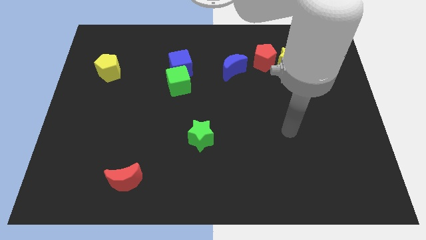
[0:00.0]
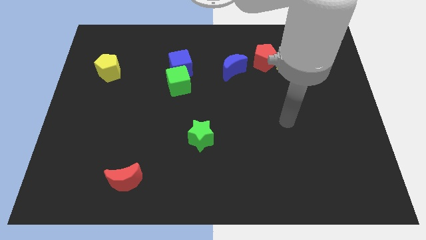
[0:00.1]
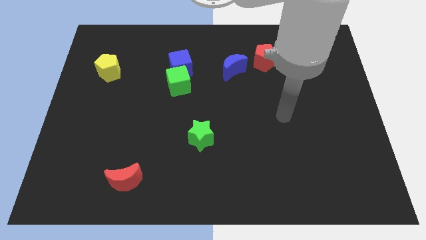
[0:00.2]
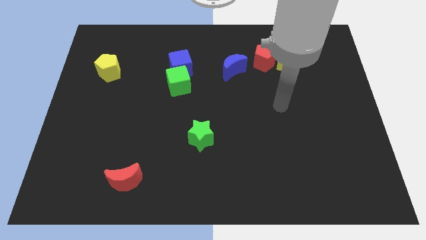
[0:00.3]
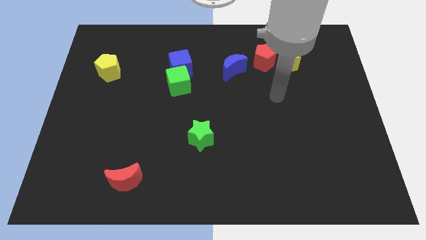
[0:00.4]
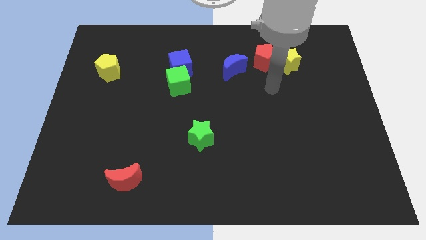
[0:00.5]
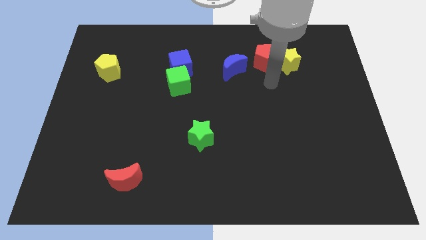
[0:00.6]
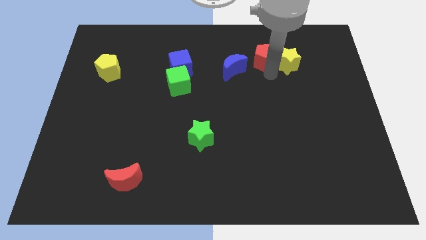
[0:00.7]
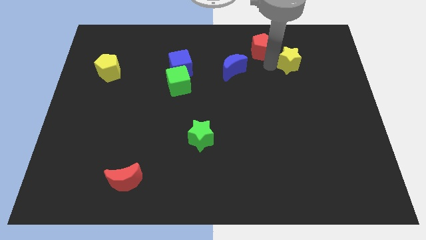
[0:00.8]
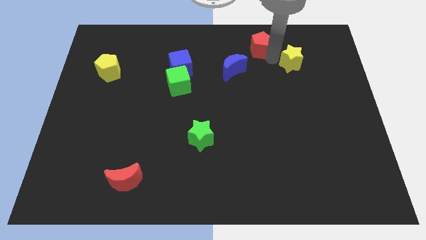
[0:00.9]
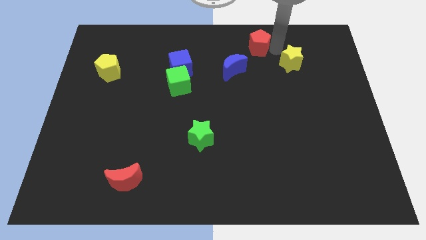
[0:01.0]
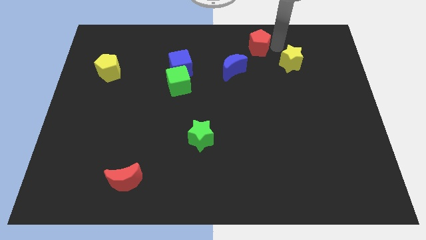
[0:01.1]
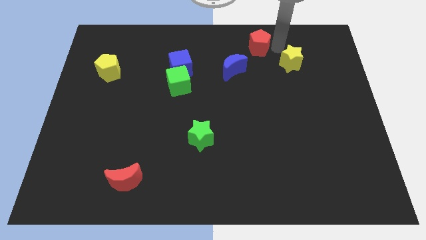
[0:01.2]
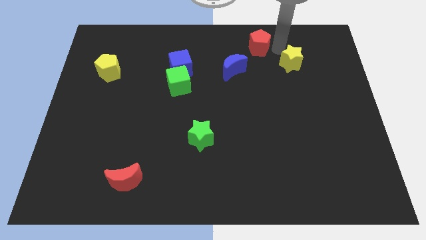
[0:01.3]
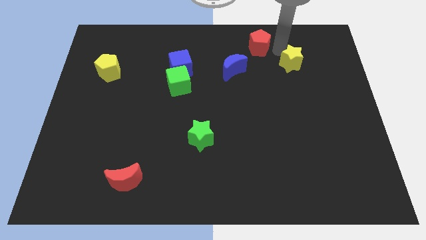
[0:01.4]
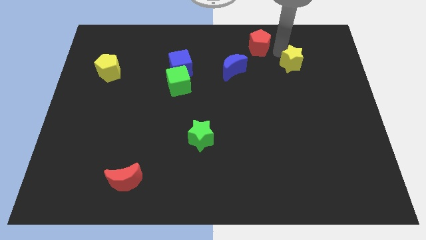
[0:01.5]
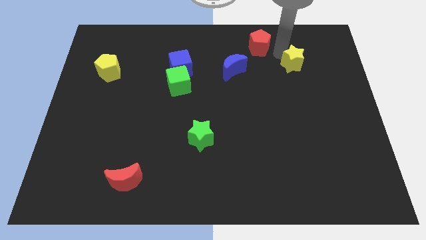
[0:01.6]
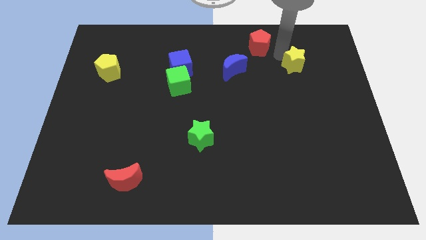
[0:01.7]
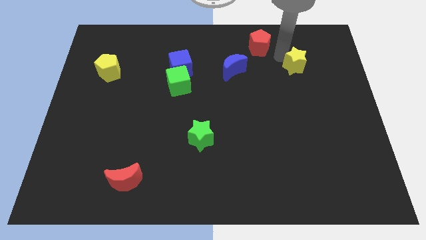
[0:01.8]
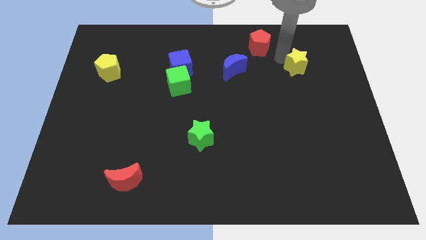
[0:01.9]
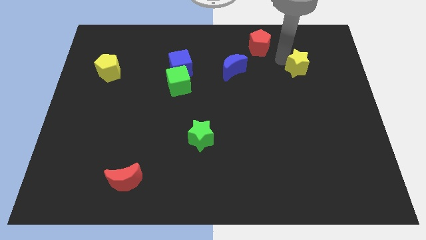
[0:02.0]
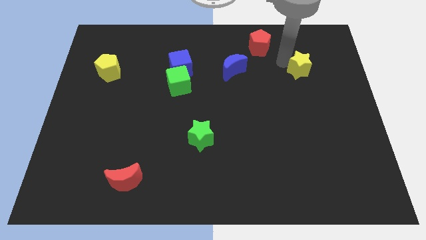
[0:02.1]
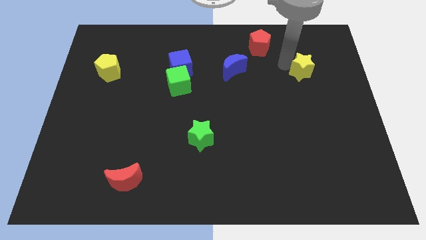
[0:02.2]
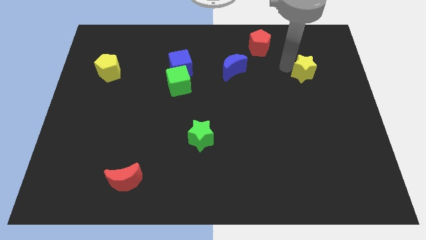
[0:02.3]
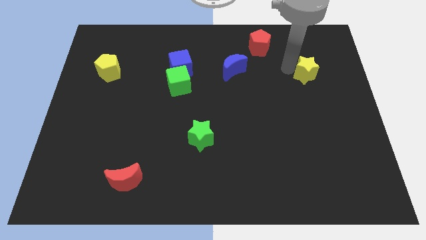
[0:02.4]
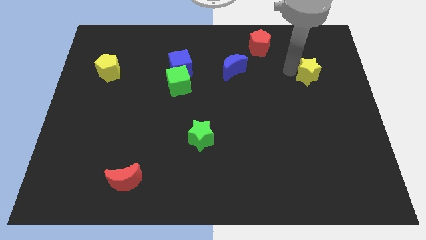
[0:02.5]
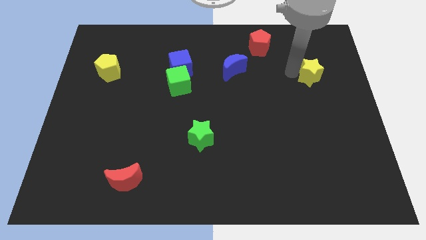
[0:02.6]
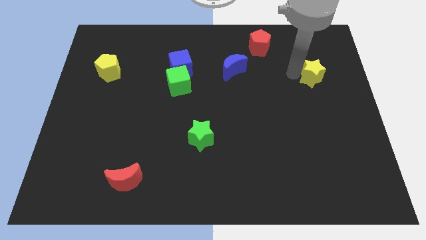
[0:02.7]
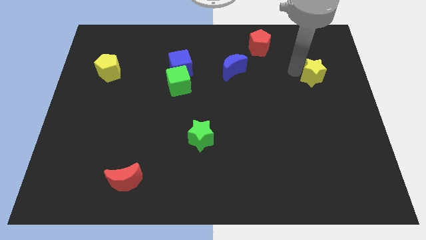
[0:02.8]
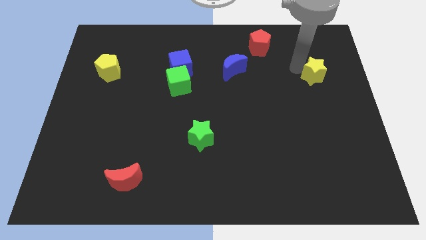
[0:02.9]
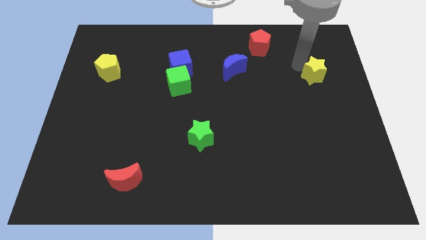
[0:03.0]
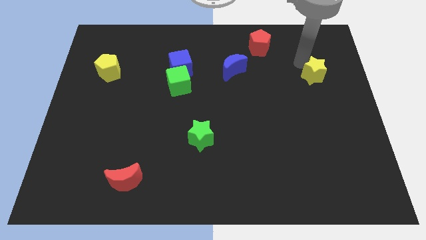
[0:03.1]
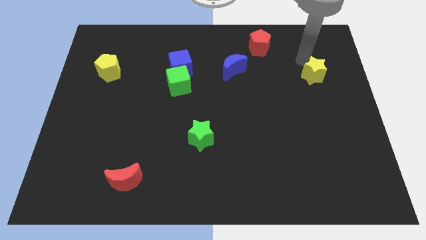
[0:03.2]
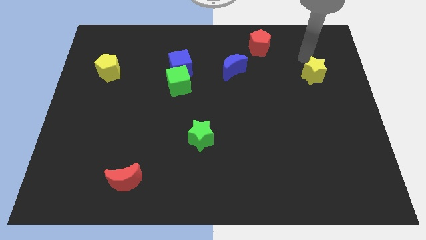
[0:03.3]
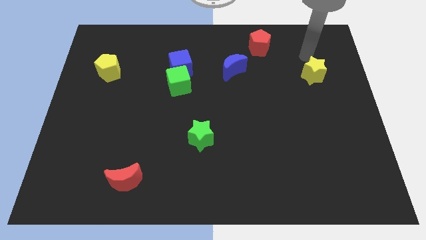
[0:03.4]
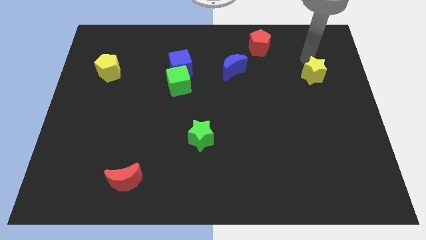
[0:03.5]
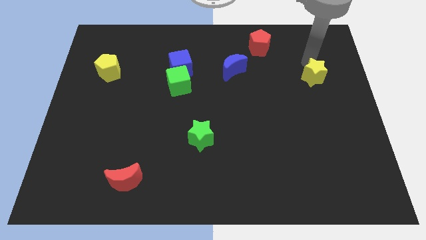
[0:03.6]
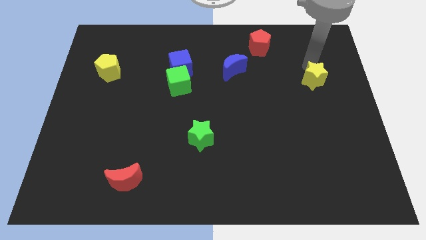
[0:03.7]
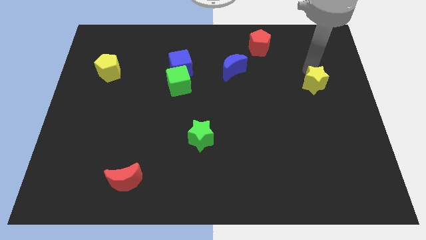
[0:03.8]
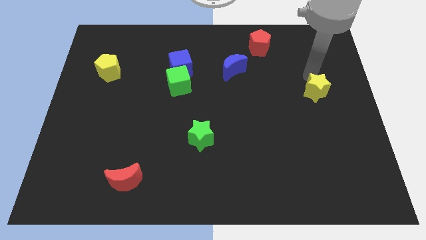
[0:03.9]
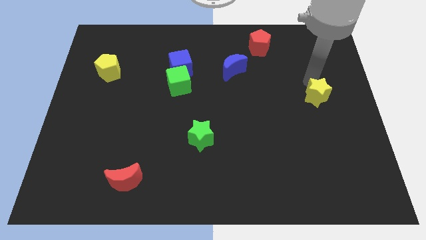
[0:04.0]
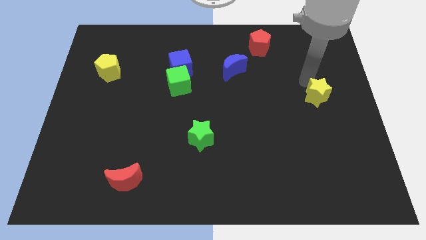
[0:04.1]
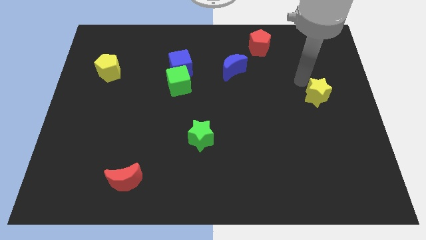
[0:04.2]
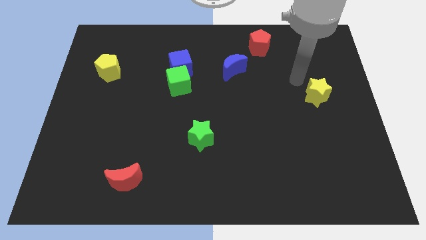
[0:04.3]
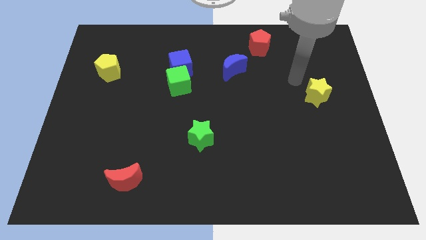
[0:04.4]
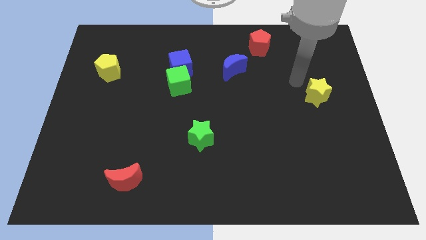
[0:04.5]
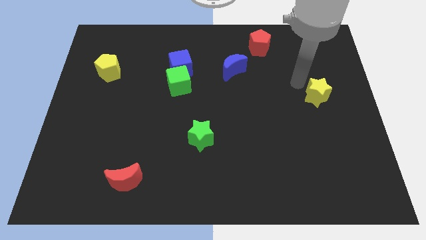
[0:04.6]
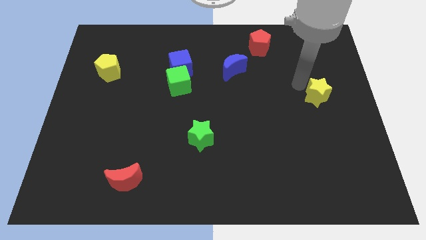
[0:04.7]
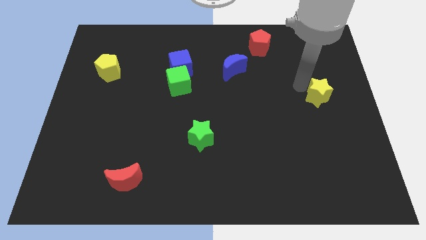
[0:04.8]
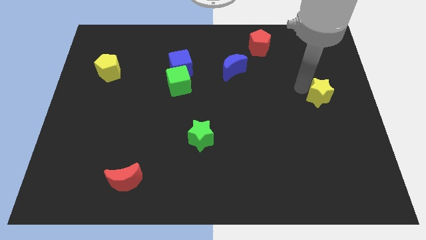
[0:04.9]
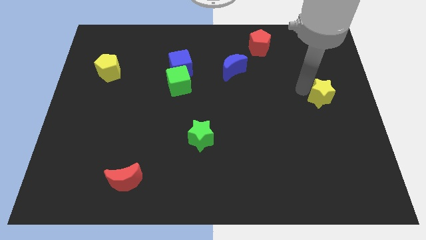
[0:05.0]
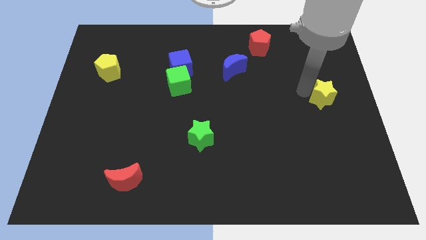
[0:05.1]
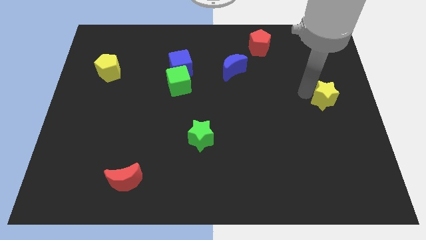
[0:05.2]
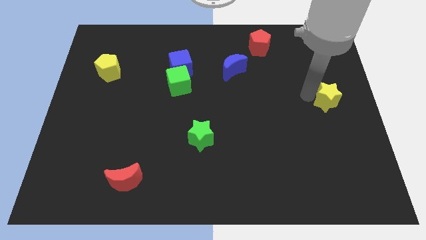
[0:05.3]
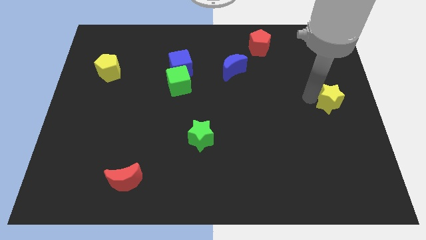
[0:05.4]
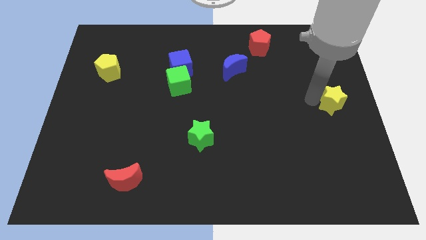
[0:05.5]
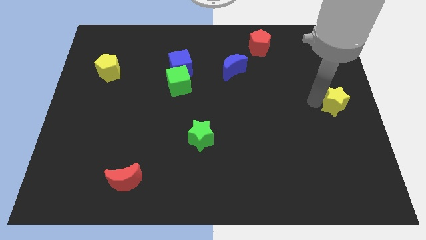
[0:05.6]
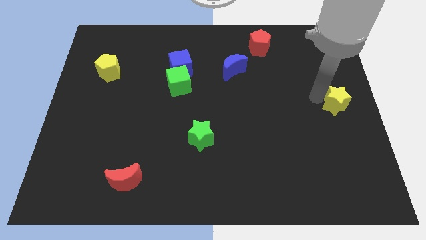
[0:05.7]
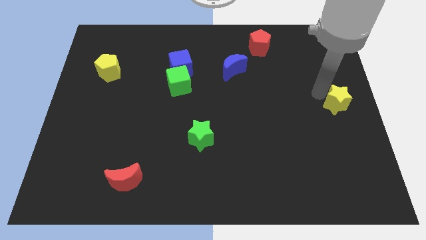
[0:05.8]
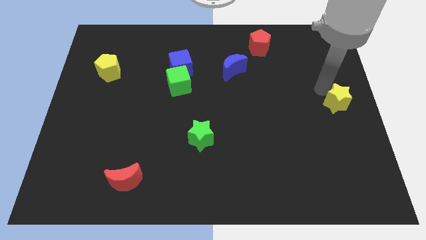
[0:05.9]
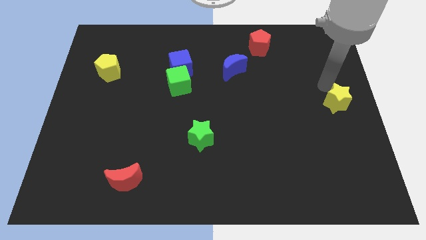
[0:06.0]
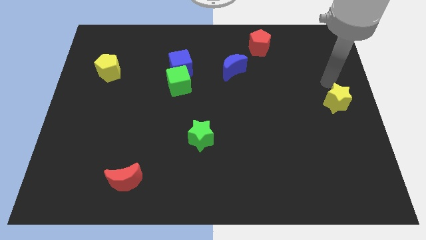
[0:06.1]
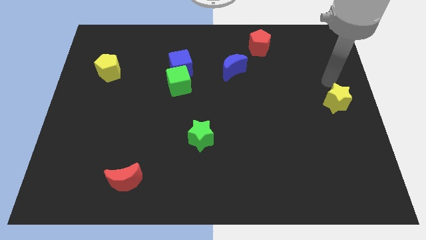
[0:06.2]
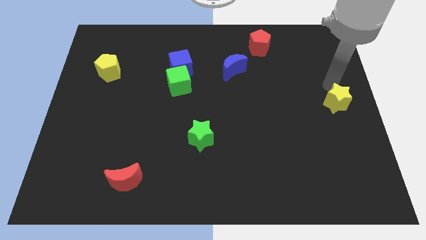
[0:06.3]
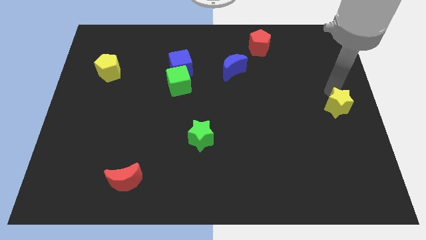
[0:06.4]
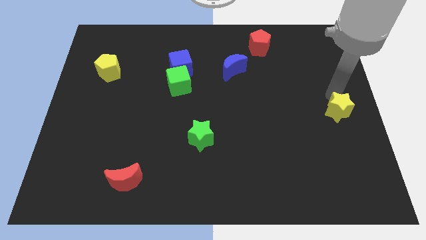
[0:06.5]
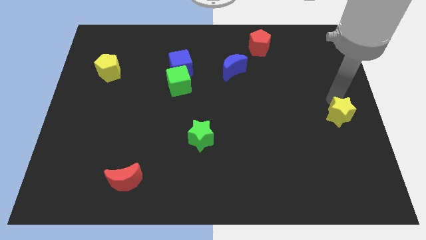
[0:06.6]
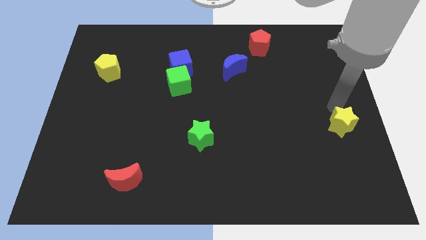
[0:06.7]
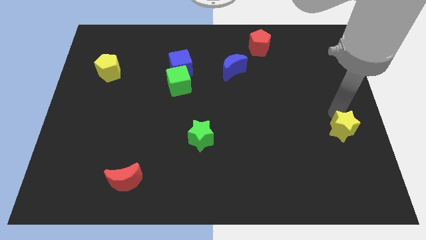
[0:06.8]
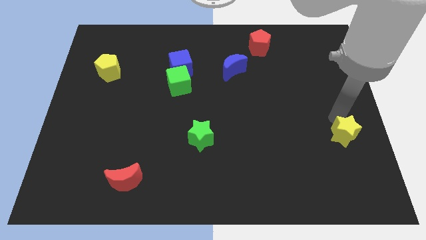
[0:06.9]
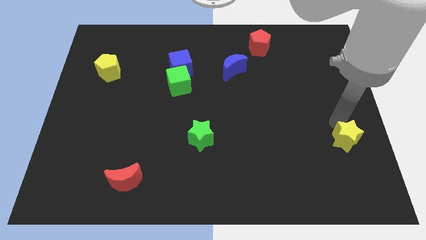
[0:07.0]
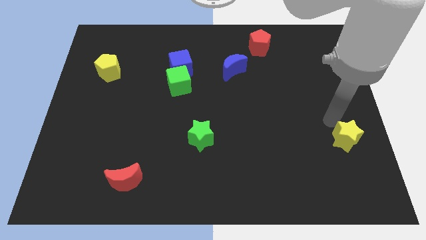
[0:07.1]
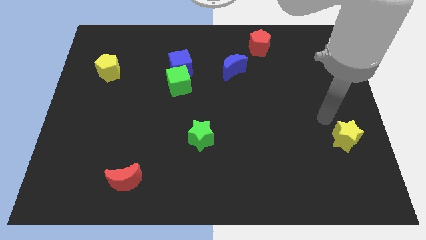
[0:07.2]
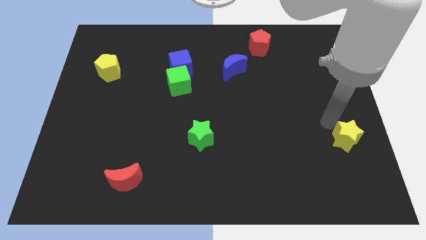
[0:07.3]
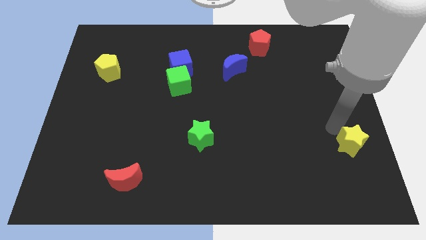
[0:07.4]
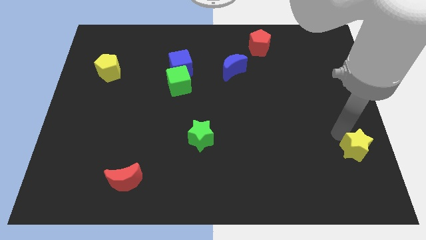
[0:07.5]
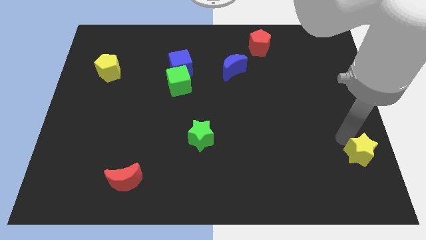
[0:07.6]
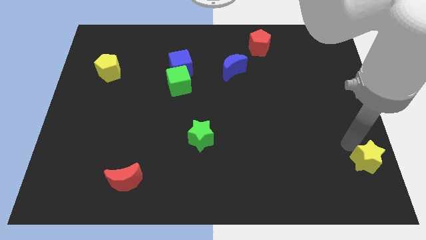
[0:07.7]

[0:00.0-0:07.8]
move the yellow star to the lower right corner
